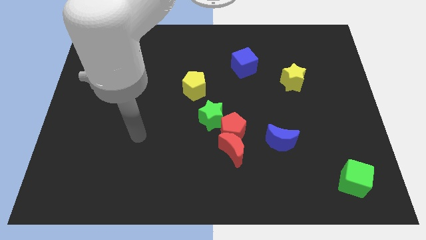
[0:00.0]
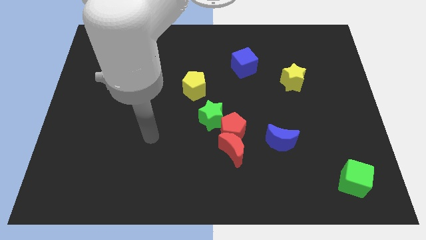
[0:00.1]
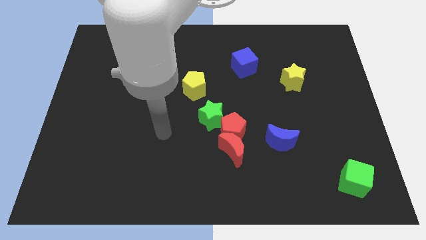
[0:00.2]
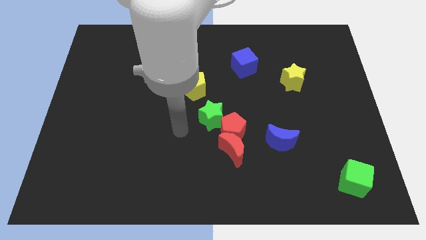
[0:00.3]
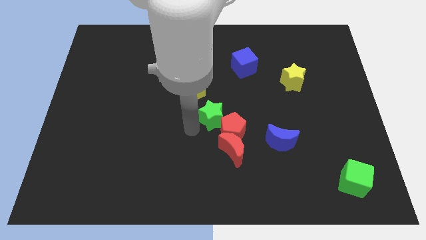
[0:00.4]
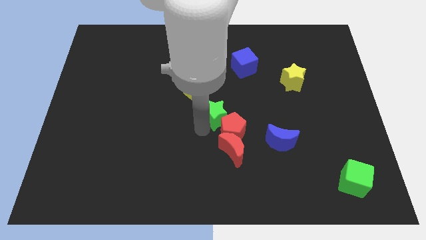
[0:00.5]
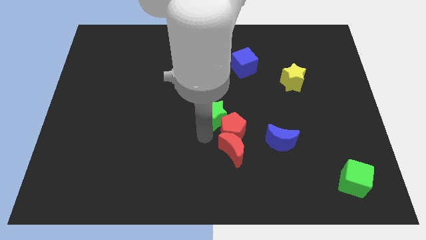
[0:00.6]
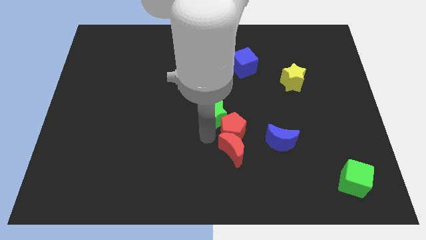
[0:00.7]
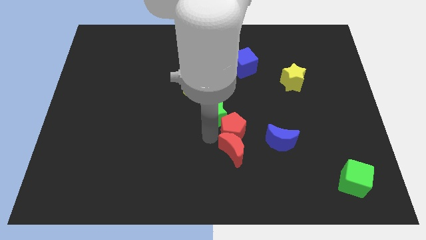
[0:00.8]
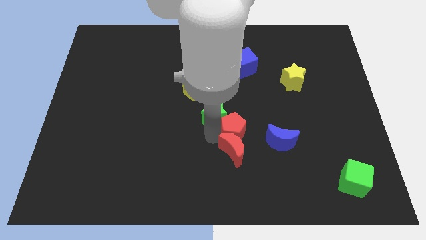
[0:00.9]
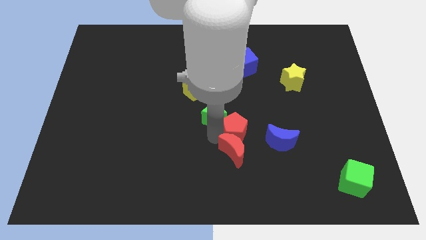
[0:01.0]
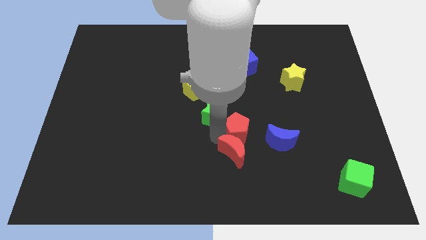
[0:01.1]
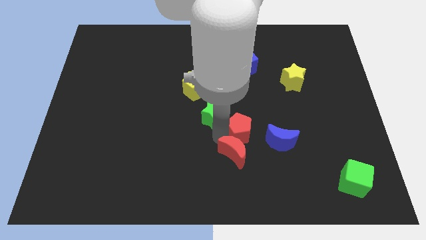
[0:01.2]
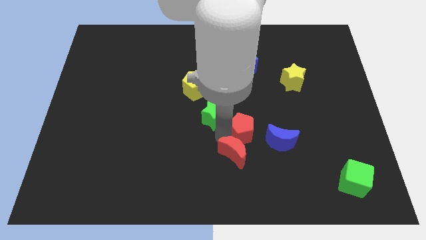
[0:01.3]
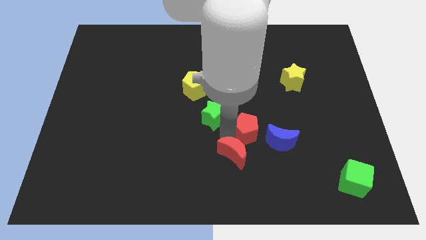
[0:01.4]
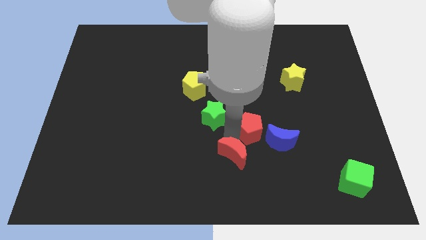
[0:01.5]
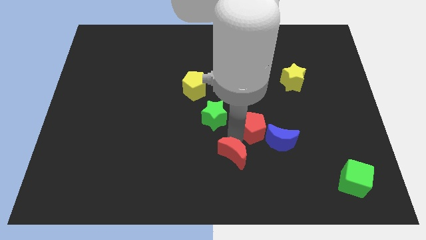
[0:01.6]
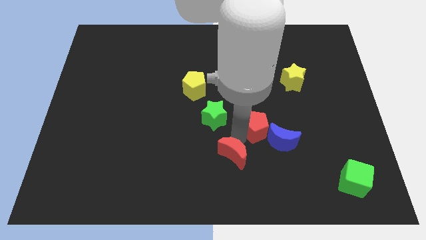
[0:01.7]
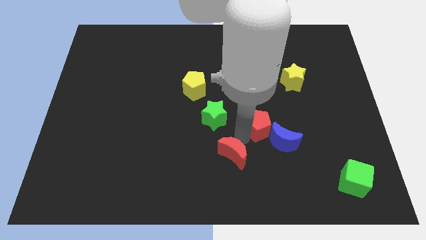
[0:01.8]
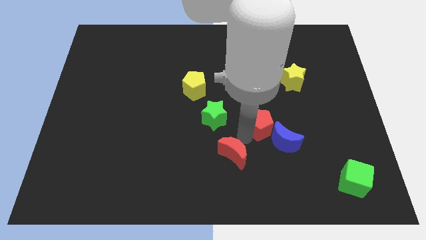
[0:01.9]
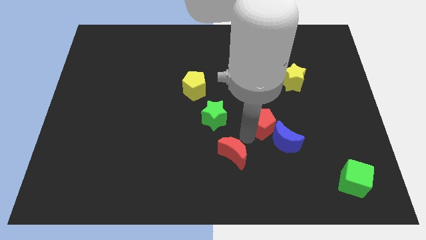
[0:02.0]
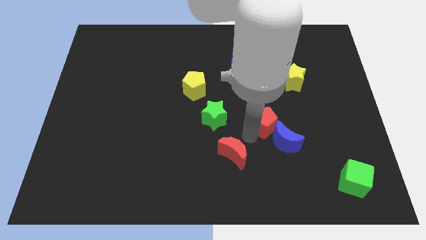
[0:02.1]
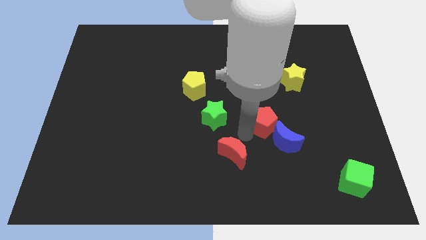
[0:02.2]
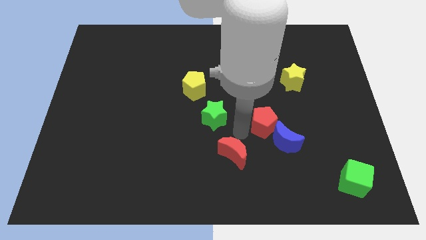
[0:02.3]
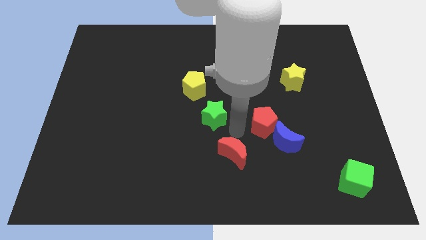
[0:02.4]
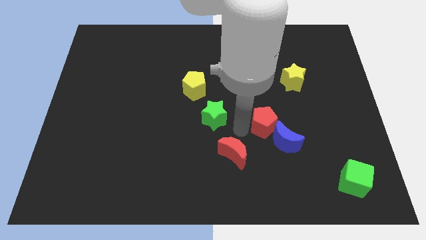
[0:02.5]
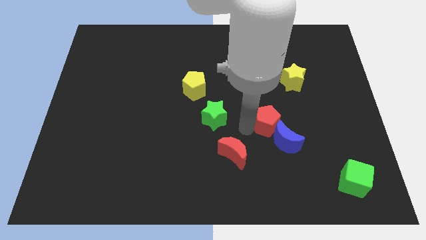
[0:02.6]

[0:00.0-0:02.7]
move the red pentagon away from the red moon and green star

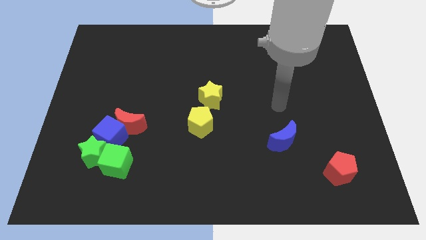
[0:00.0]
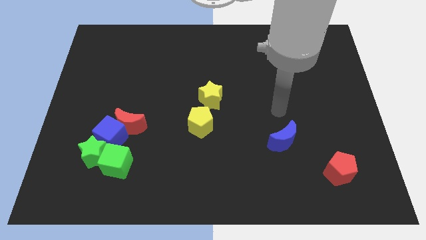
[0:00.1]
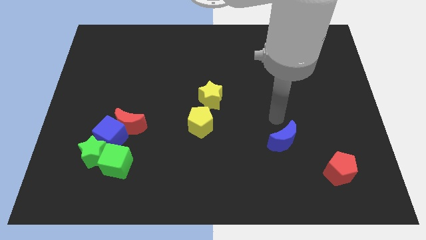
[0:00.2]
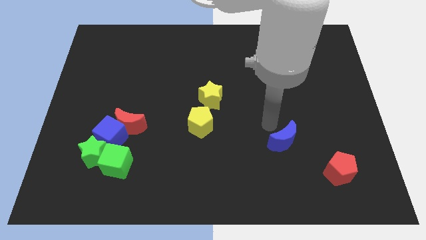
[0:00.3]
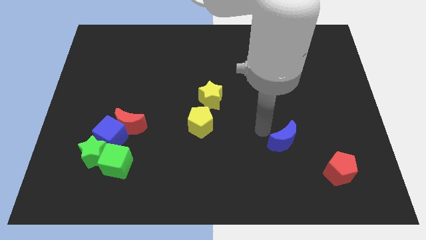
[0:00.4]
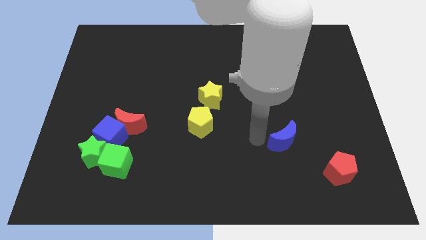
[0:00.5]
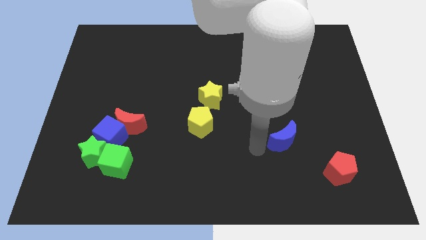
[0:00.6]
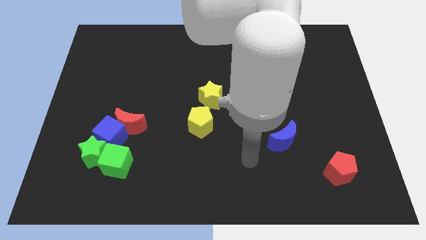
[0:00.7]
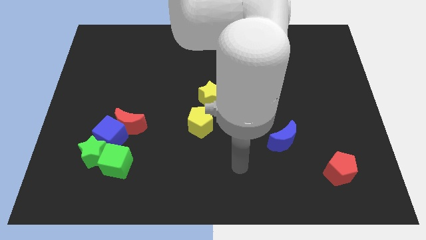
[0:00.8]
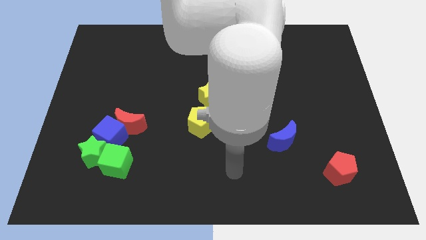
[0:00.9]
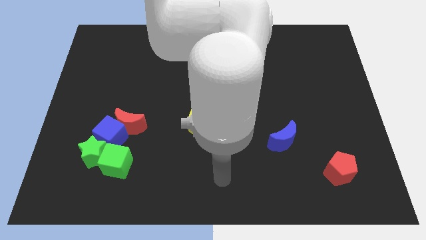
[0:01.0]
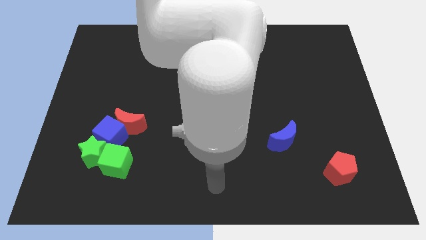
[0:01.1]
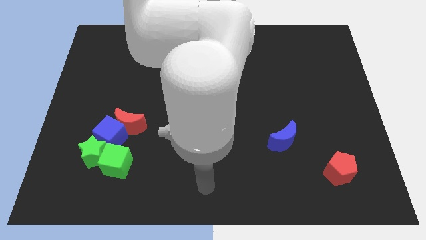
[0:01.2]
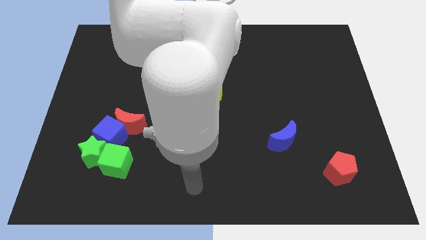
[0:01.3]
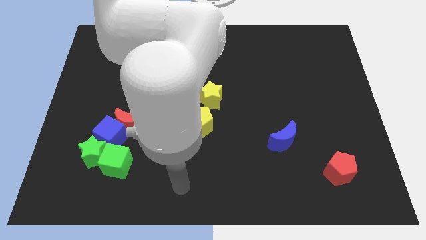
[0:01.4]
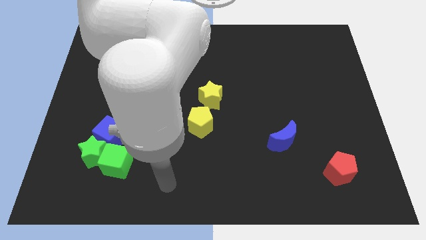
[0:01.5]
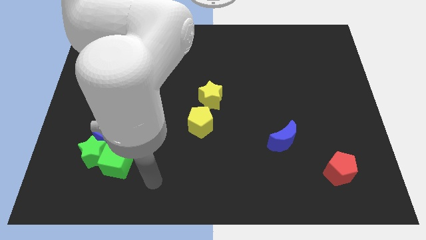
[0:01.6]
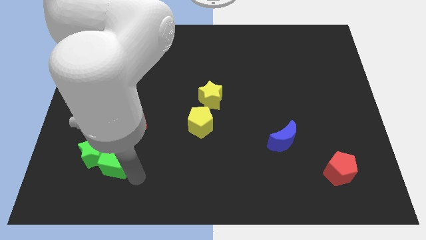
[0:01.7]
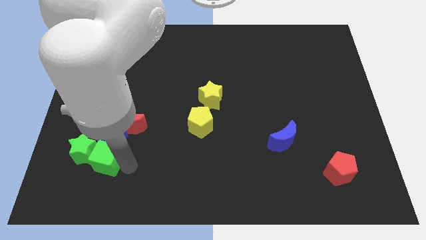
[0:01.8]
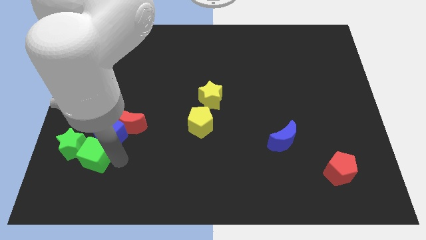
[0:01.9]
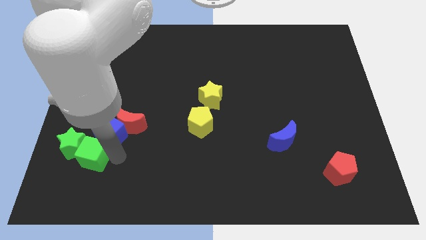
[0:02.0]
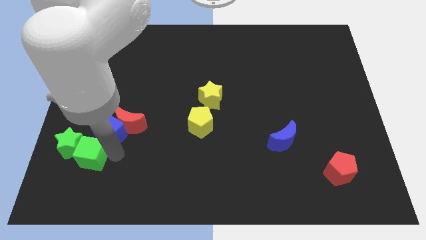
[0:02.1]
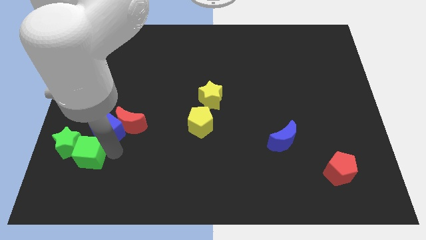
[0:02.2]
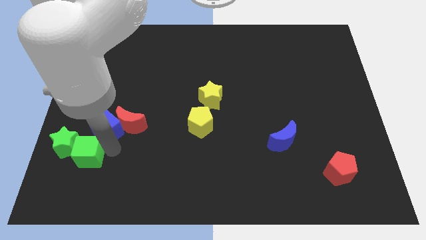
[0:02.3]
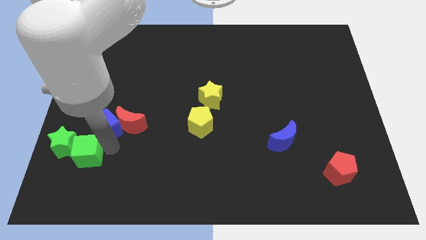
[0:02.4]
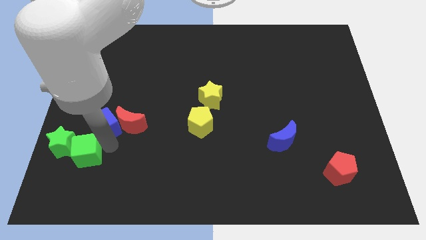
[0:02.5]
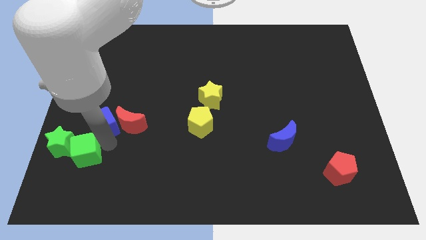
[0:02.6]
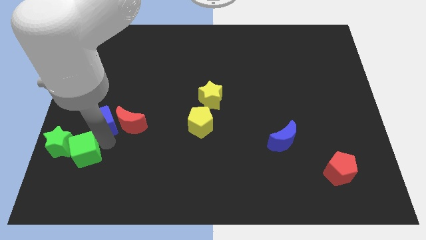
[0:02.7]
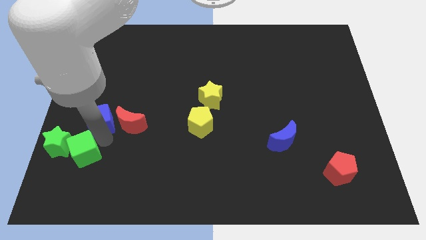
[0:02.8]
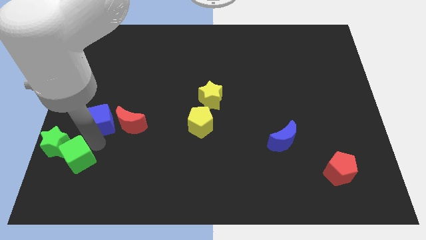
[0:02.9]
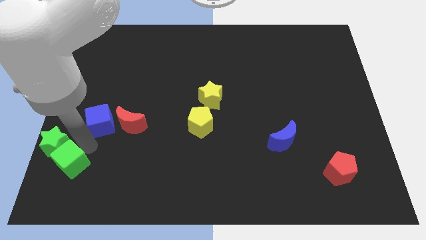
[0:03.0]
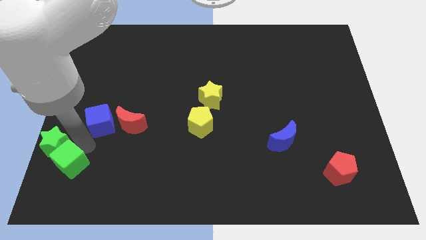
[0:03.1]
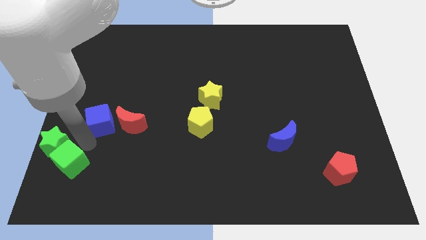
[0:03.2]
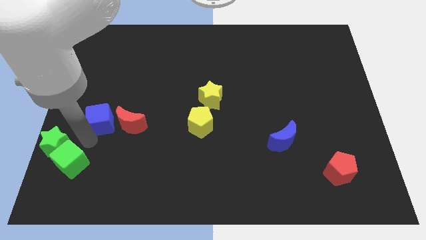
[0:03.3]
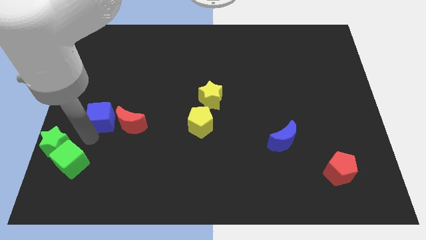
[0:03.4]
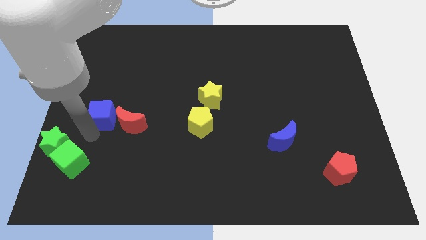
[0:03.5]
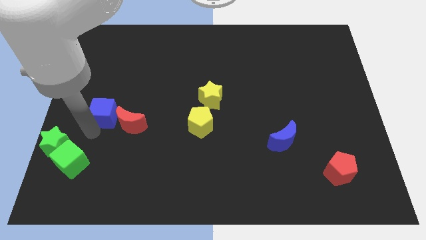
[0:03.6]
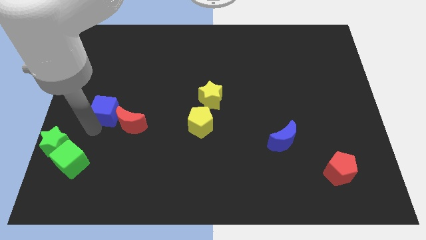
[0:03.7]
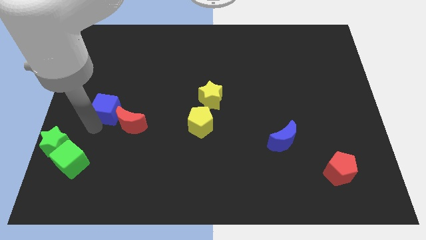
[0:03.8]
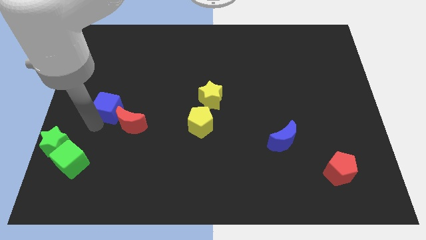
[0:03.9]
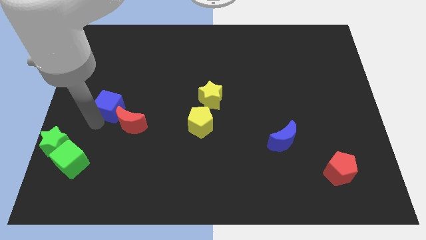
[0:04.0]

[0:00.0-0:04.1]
pull the blue cube apart from the group of blocks

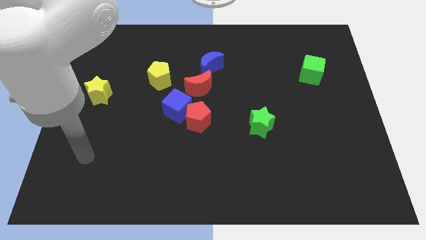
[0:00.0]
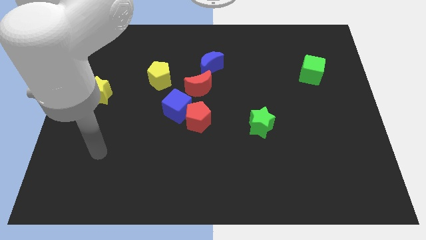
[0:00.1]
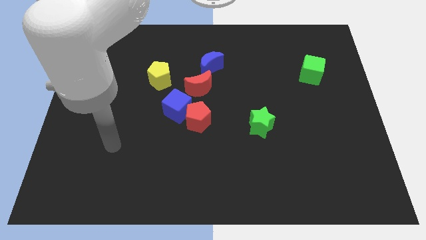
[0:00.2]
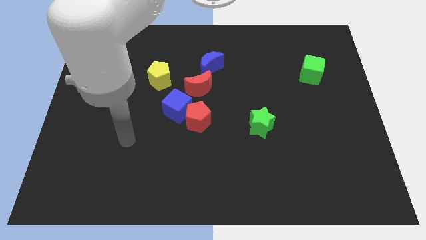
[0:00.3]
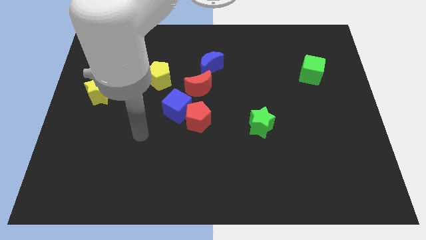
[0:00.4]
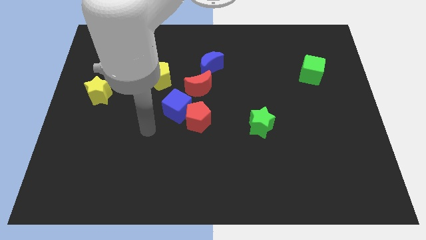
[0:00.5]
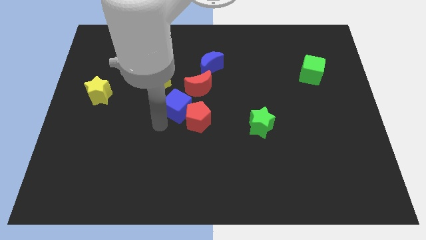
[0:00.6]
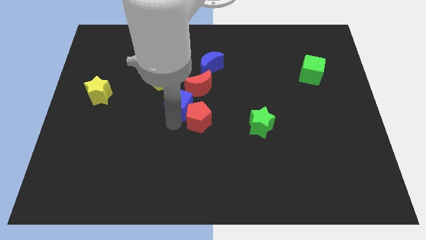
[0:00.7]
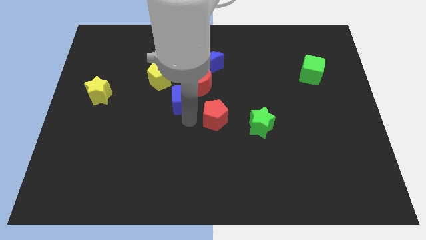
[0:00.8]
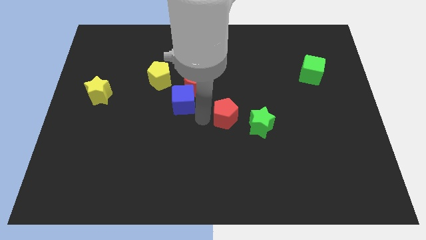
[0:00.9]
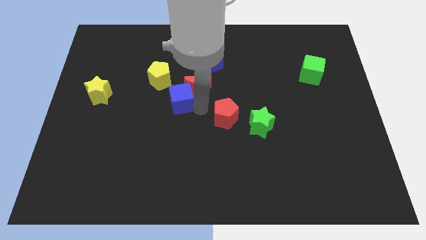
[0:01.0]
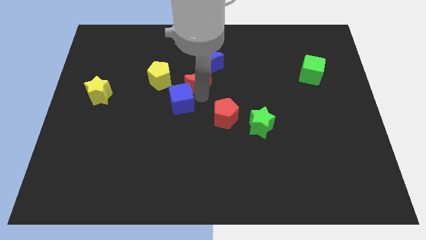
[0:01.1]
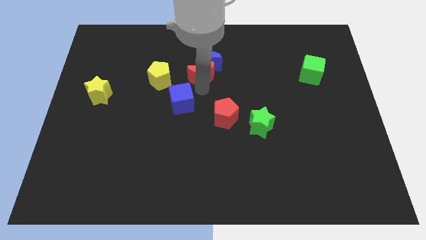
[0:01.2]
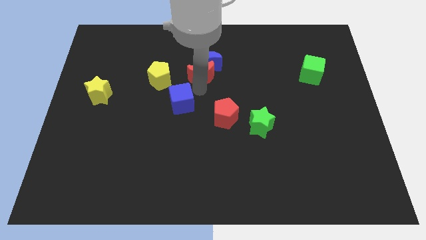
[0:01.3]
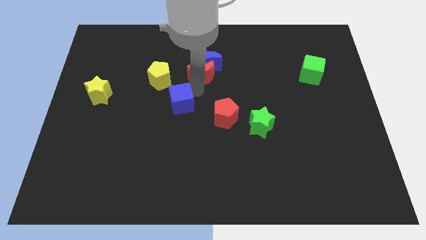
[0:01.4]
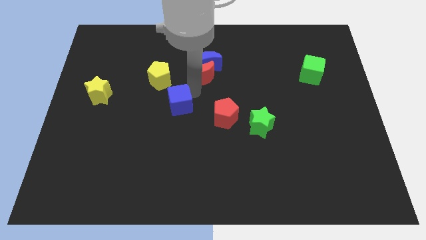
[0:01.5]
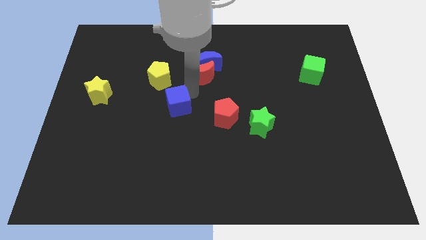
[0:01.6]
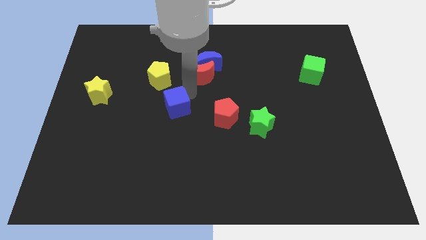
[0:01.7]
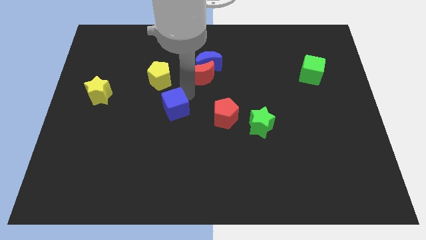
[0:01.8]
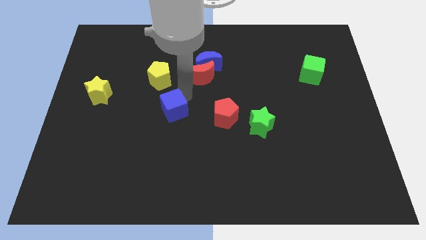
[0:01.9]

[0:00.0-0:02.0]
move the blue cube away from the red pentagon and red moon

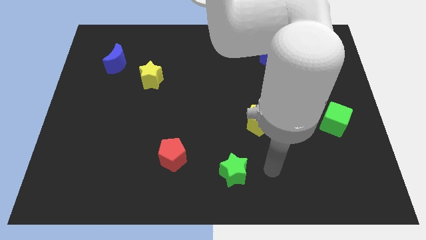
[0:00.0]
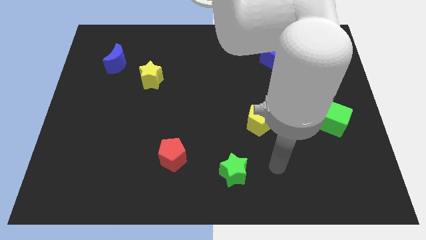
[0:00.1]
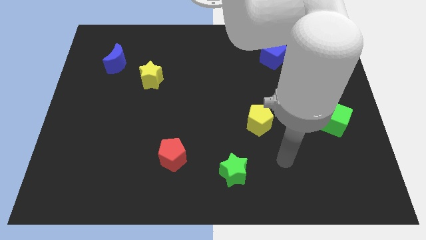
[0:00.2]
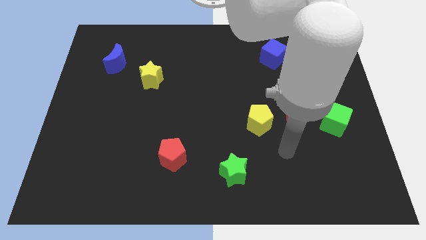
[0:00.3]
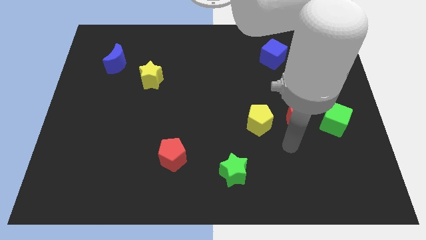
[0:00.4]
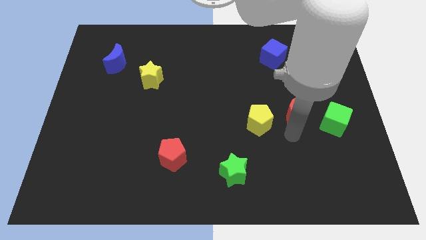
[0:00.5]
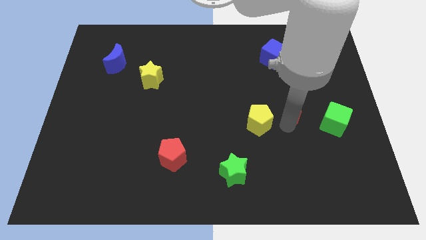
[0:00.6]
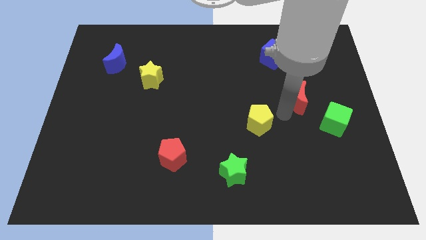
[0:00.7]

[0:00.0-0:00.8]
separate the yellow pentagon from the red moon
